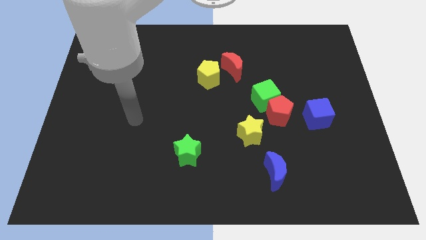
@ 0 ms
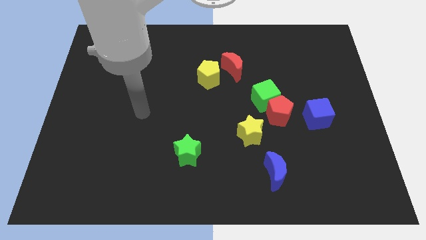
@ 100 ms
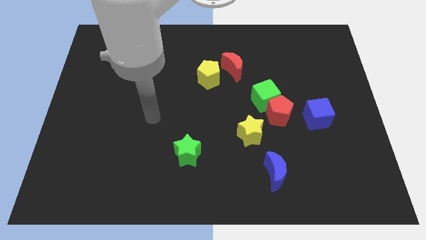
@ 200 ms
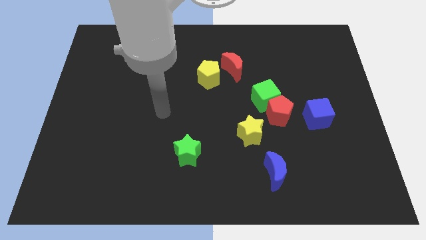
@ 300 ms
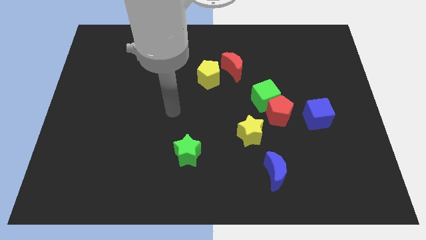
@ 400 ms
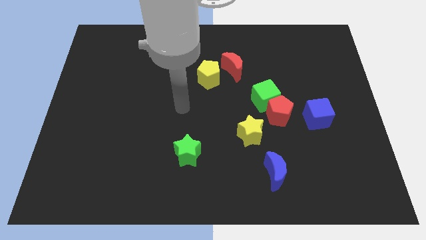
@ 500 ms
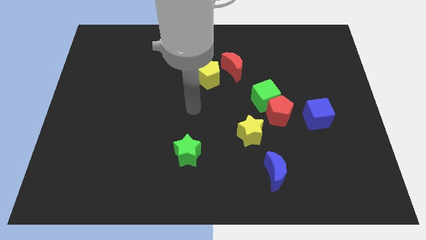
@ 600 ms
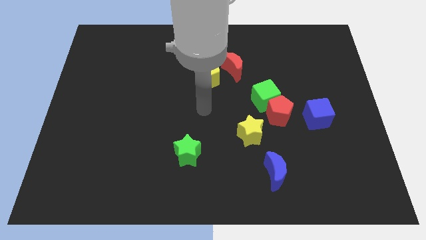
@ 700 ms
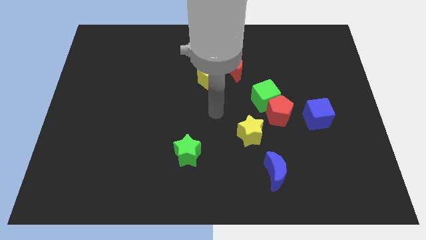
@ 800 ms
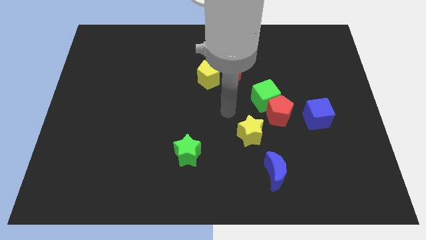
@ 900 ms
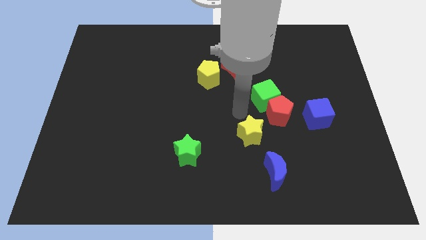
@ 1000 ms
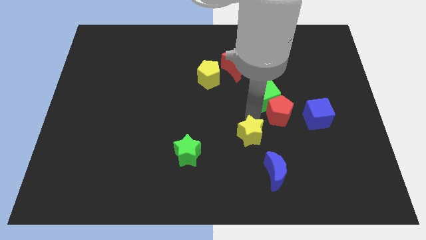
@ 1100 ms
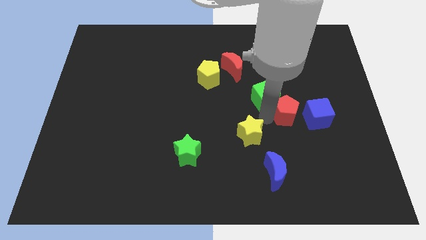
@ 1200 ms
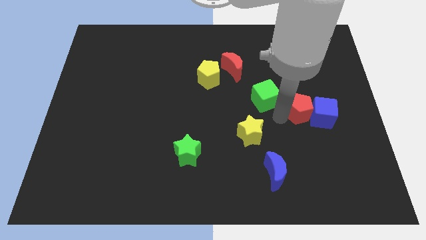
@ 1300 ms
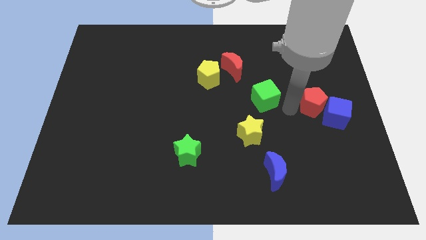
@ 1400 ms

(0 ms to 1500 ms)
move the green cube away from the red pentagon

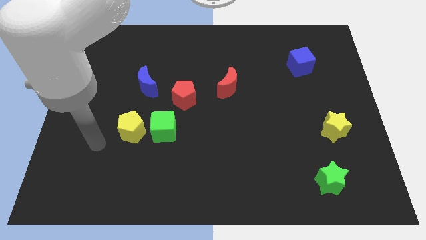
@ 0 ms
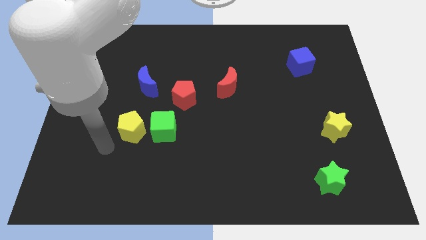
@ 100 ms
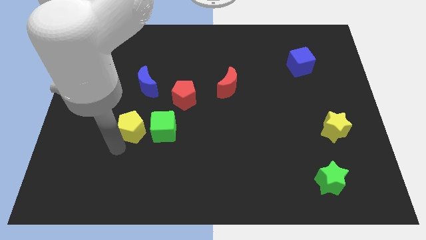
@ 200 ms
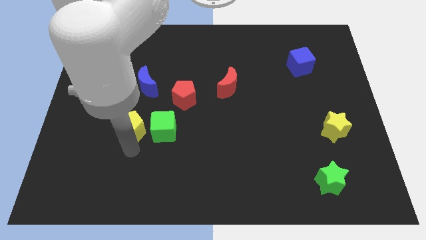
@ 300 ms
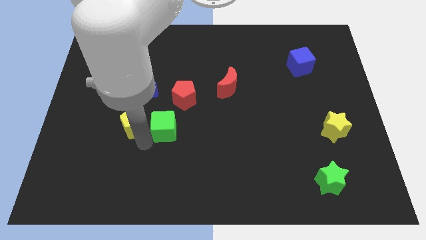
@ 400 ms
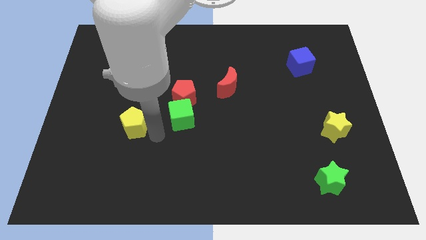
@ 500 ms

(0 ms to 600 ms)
separate the yellow pentagon from the green cube

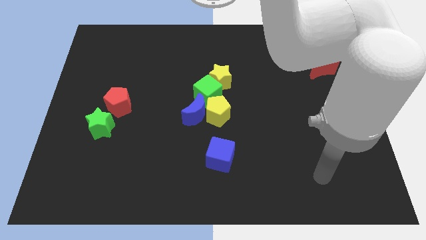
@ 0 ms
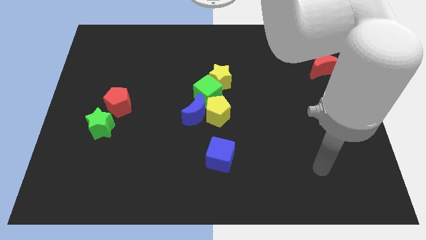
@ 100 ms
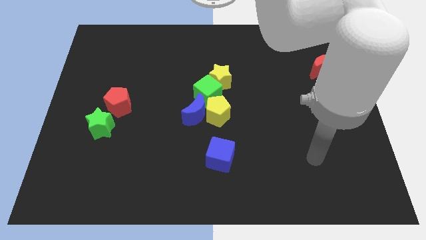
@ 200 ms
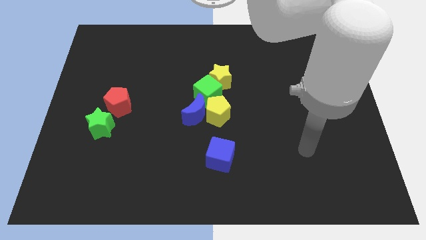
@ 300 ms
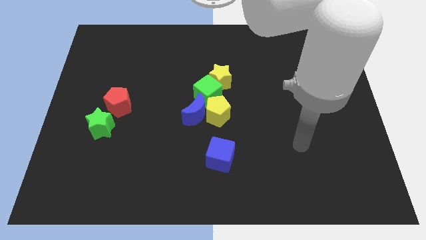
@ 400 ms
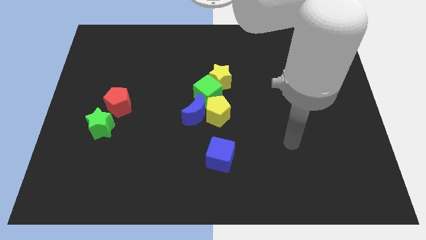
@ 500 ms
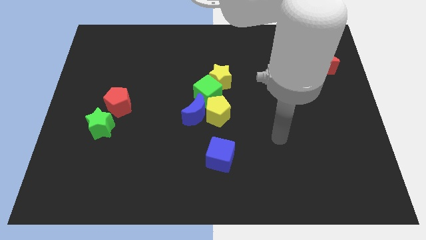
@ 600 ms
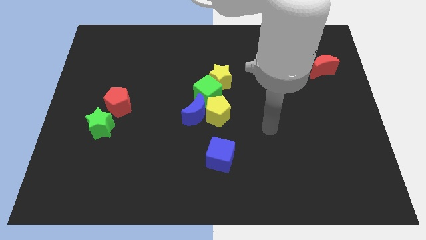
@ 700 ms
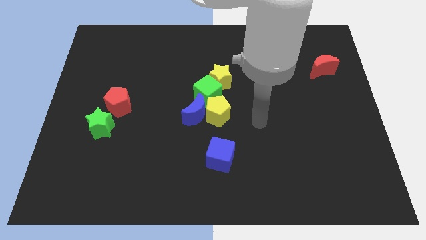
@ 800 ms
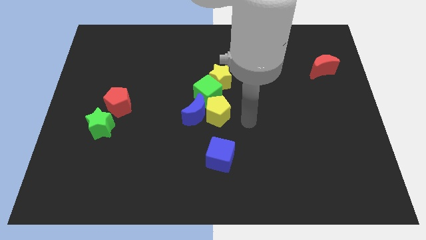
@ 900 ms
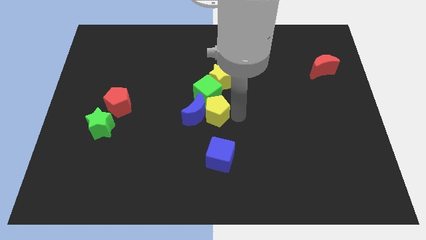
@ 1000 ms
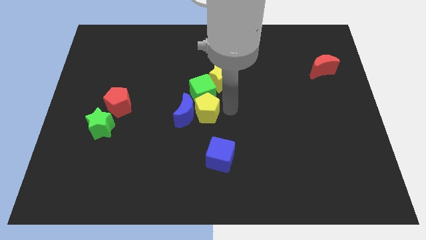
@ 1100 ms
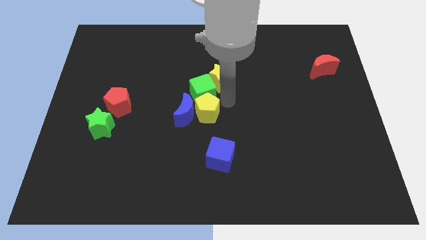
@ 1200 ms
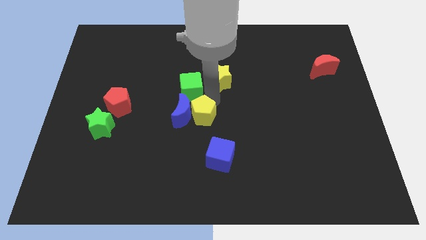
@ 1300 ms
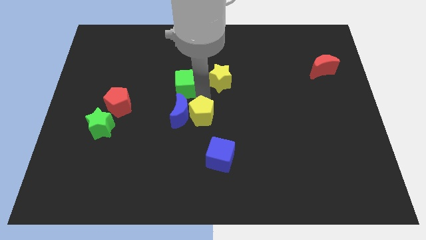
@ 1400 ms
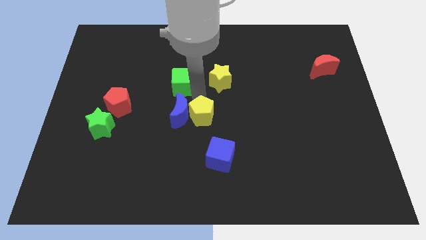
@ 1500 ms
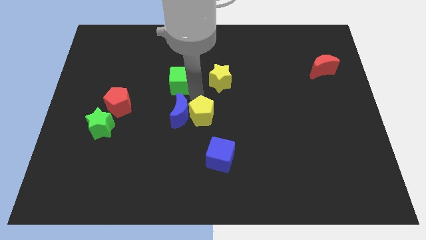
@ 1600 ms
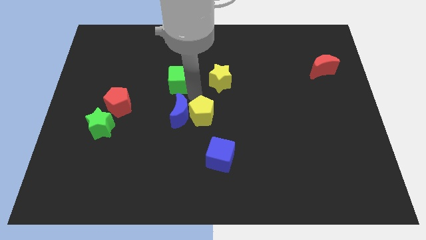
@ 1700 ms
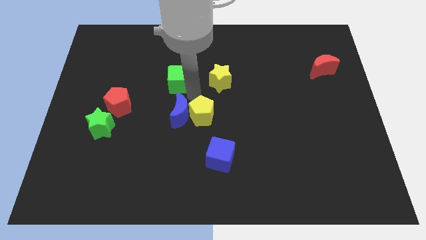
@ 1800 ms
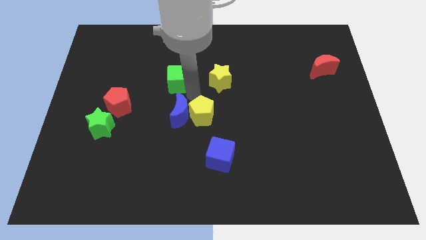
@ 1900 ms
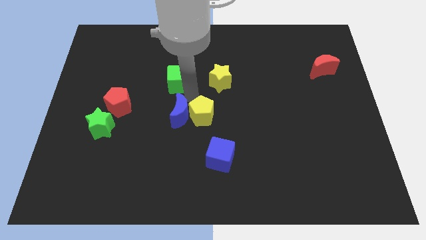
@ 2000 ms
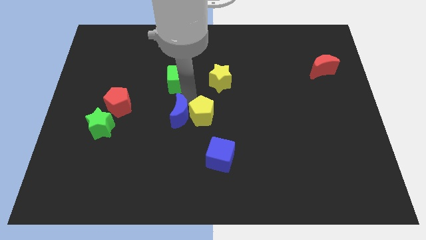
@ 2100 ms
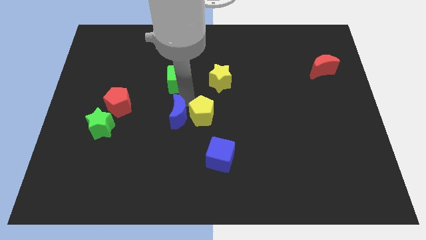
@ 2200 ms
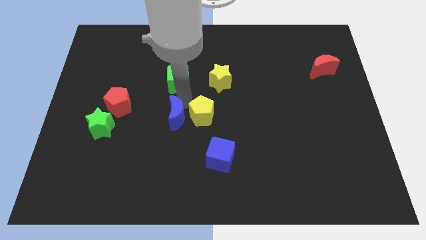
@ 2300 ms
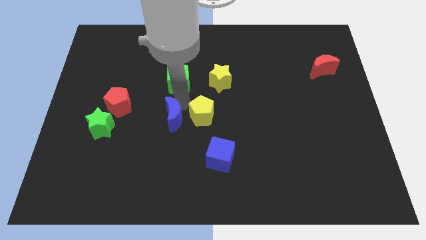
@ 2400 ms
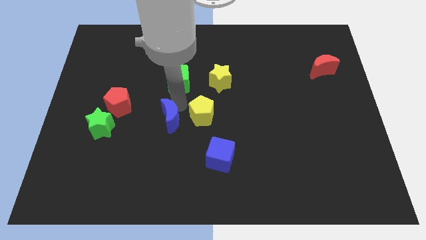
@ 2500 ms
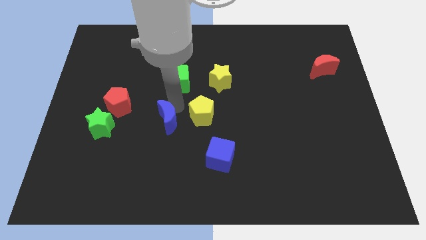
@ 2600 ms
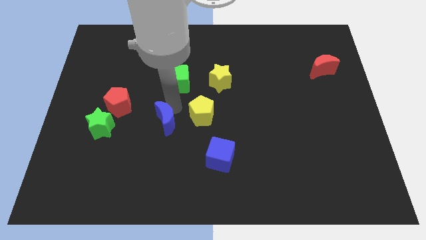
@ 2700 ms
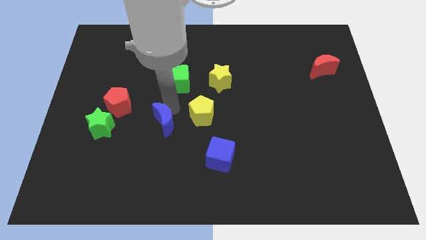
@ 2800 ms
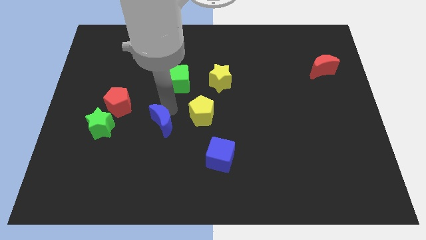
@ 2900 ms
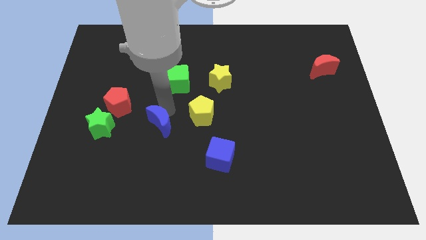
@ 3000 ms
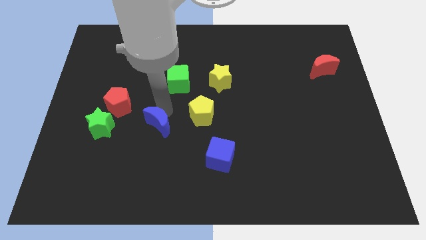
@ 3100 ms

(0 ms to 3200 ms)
separate the blue moon from the yellow pentagon and green cube

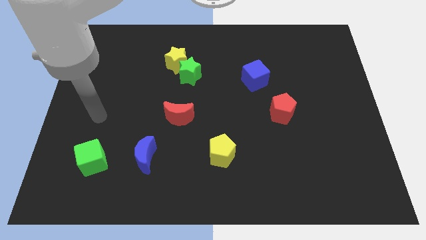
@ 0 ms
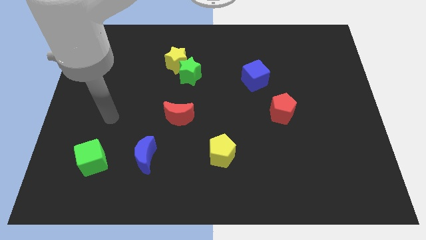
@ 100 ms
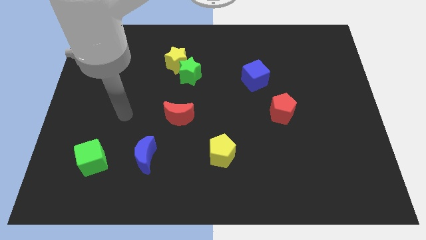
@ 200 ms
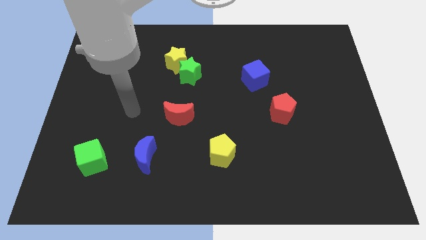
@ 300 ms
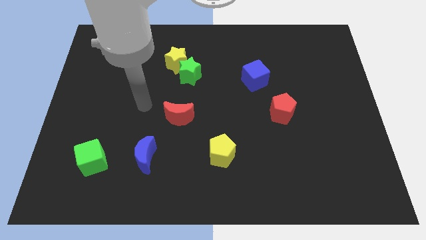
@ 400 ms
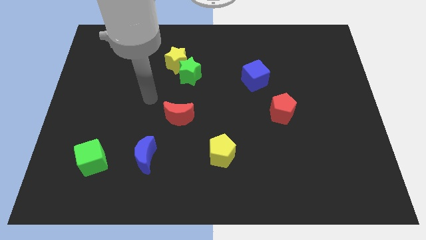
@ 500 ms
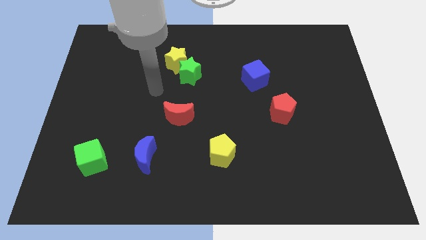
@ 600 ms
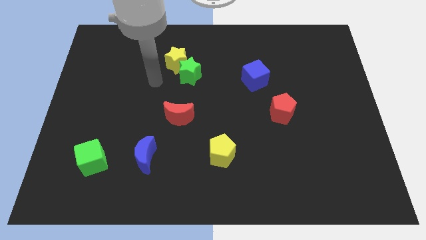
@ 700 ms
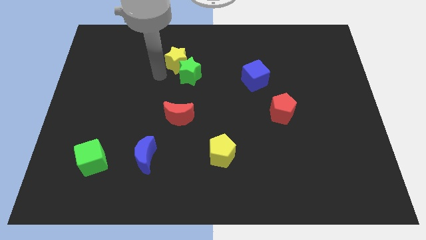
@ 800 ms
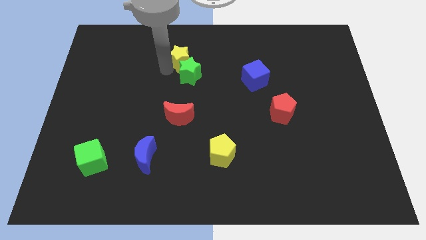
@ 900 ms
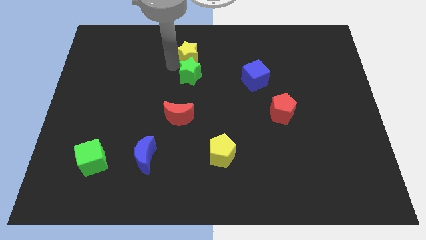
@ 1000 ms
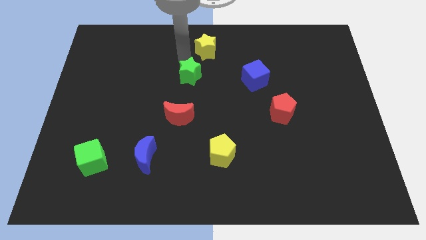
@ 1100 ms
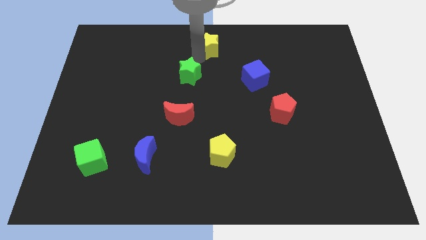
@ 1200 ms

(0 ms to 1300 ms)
pull the green star apart from the yellow star

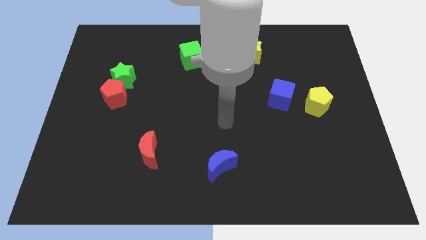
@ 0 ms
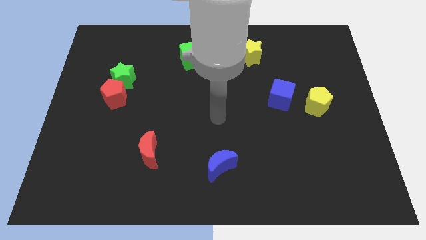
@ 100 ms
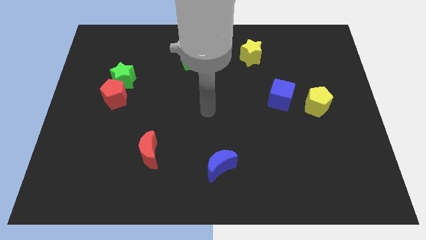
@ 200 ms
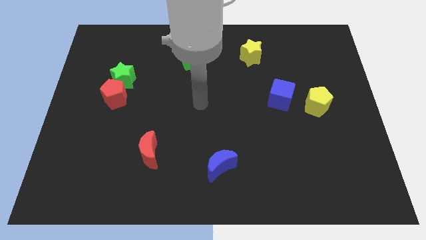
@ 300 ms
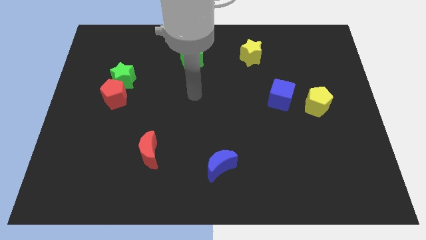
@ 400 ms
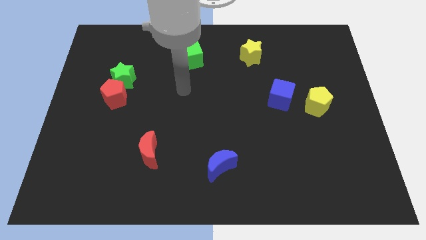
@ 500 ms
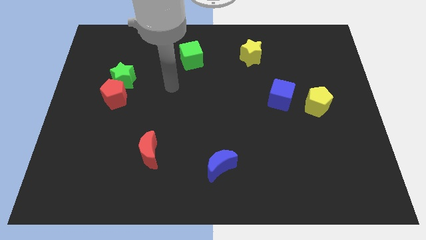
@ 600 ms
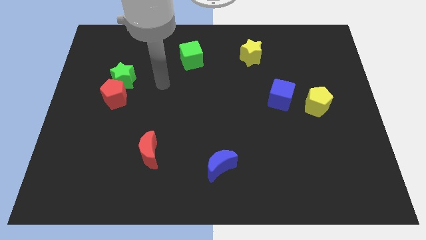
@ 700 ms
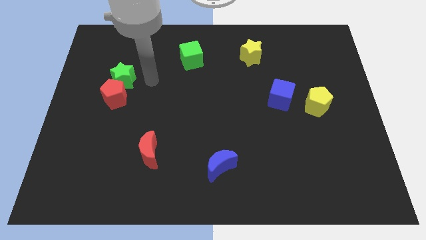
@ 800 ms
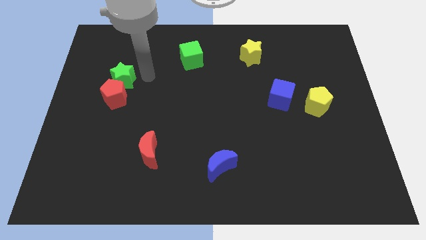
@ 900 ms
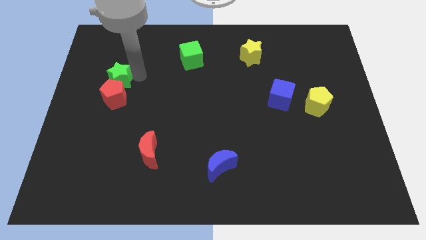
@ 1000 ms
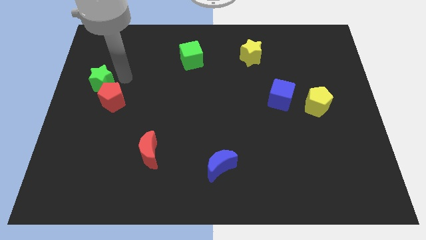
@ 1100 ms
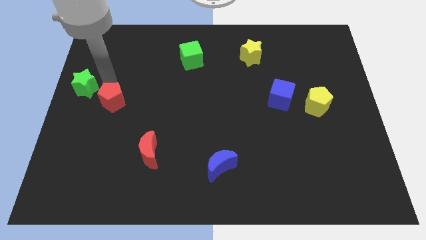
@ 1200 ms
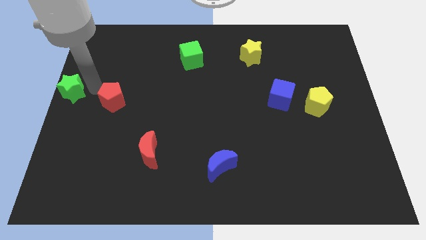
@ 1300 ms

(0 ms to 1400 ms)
move the red pentagon away from the green star

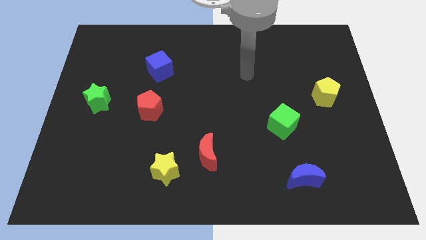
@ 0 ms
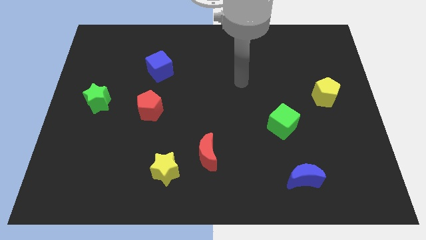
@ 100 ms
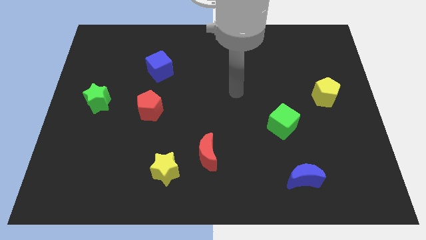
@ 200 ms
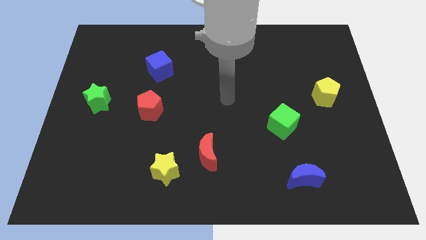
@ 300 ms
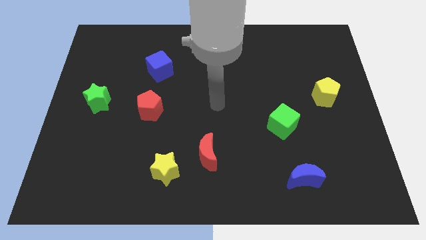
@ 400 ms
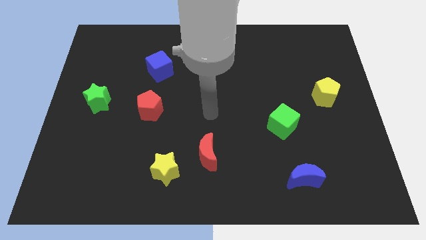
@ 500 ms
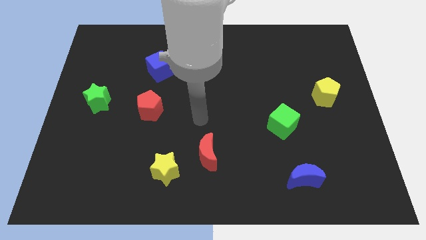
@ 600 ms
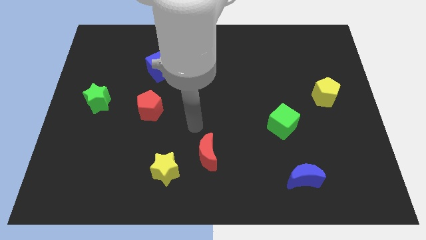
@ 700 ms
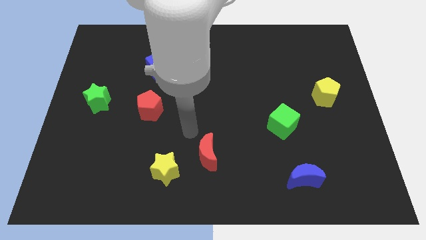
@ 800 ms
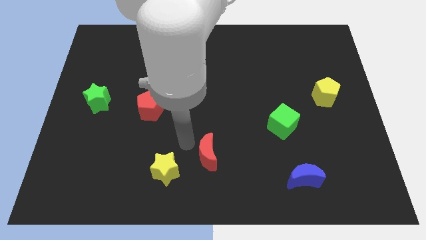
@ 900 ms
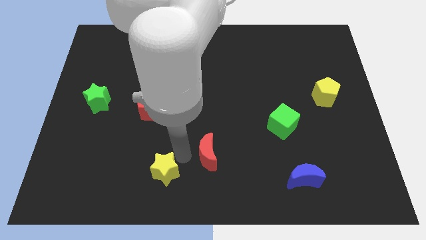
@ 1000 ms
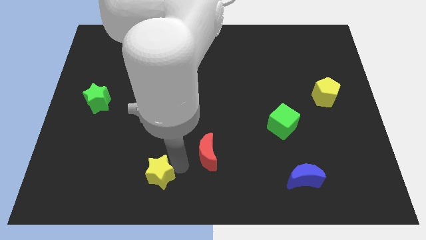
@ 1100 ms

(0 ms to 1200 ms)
separate the red moon from the yellow star
